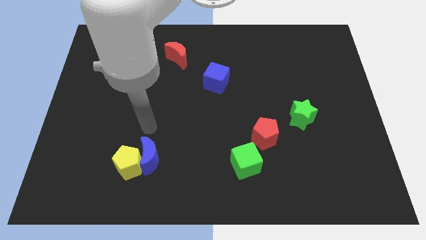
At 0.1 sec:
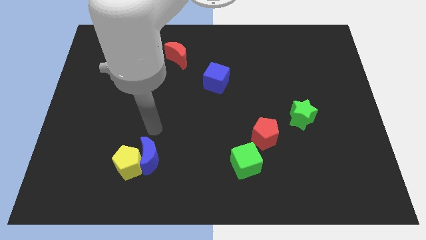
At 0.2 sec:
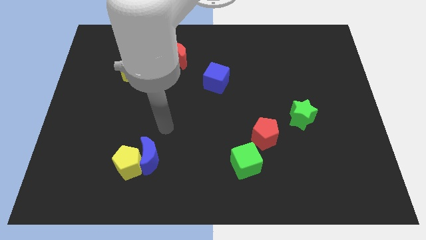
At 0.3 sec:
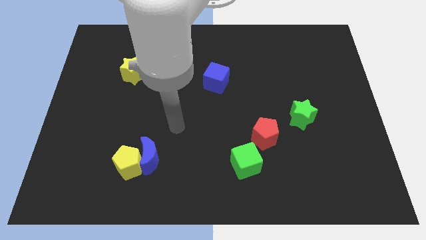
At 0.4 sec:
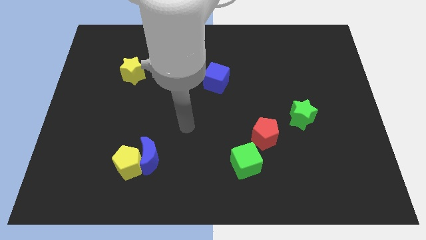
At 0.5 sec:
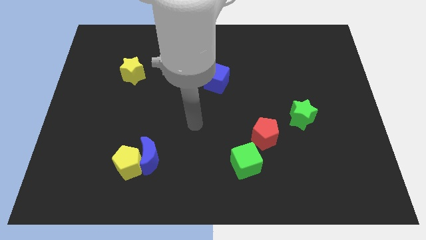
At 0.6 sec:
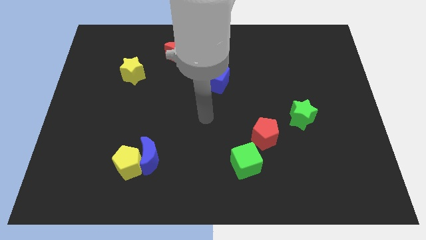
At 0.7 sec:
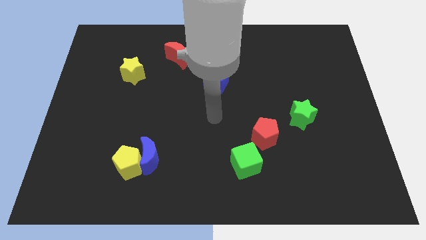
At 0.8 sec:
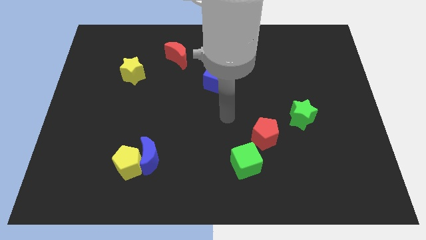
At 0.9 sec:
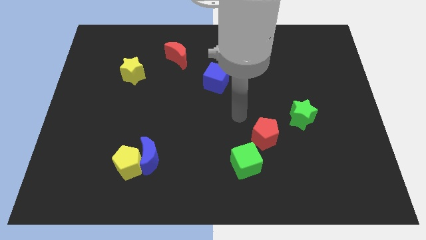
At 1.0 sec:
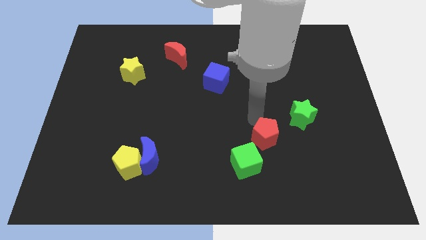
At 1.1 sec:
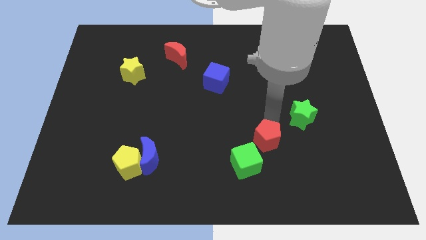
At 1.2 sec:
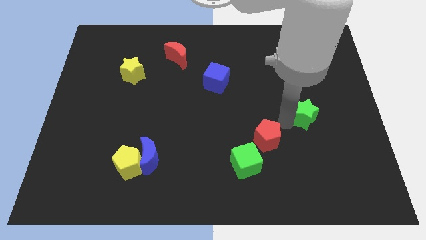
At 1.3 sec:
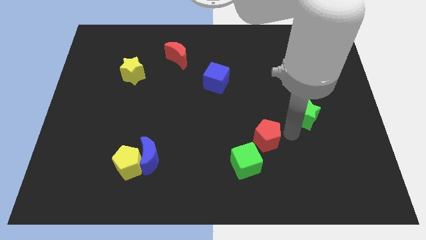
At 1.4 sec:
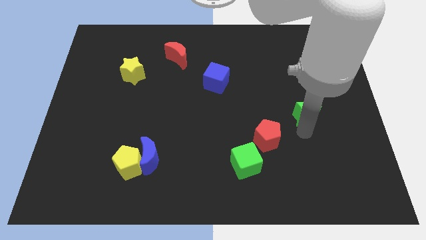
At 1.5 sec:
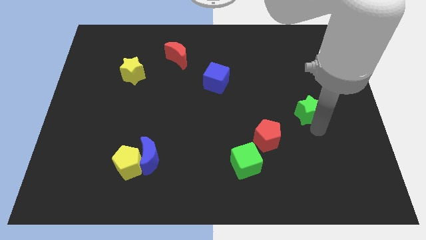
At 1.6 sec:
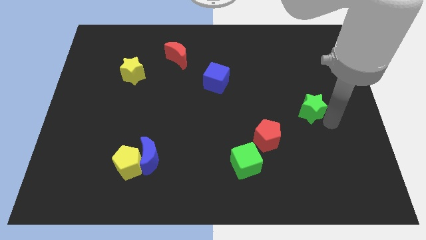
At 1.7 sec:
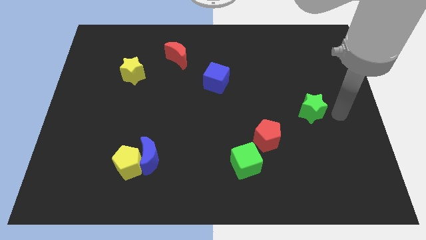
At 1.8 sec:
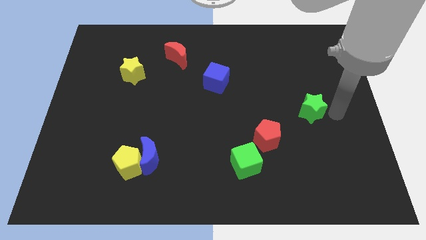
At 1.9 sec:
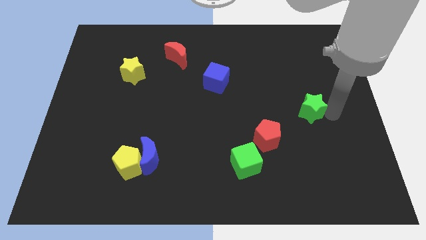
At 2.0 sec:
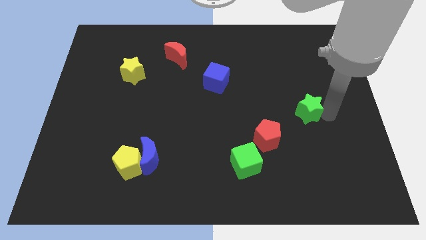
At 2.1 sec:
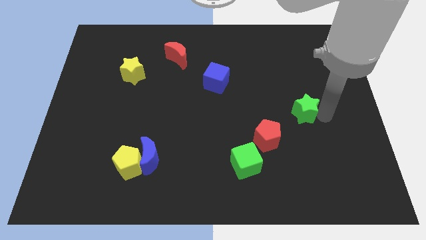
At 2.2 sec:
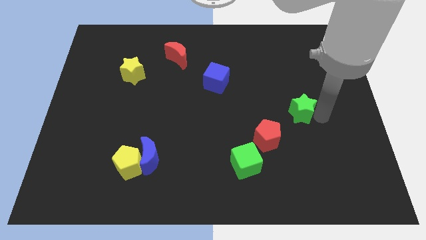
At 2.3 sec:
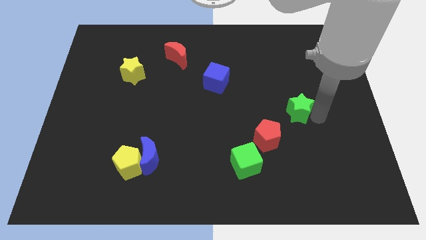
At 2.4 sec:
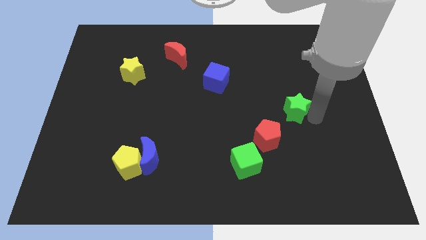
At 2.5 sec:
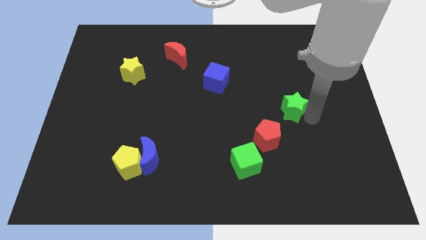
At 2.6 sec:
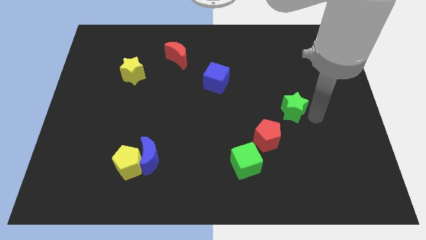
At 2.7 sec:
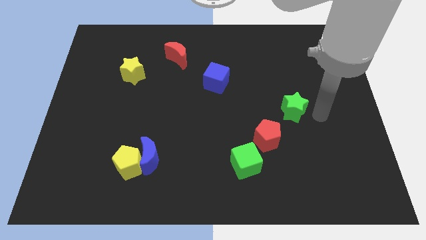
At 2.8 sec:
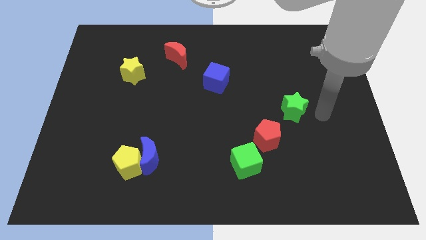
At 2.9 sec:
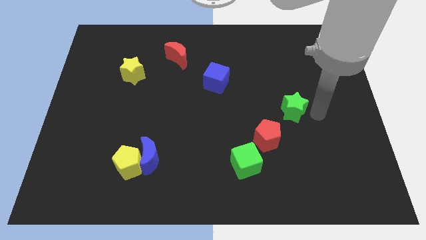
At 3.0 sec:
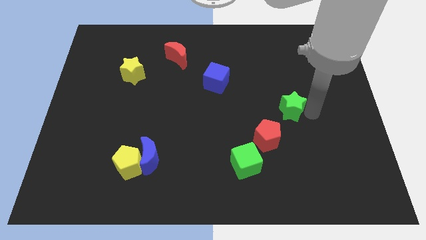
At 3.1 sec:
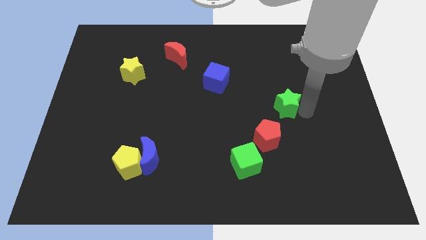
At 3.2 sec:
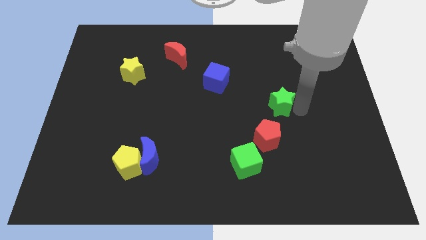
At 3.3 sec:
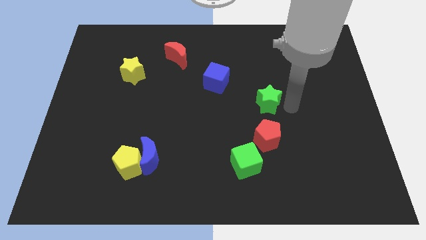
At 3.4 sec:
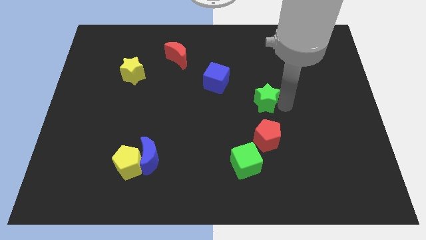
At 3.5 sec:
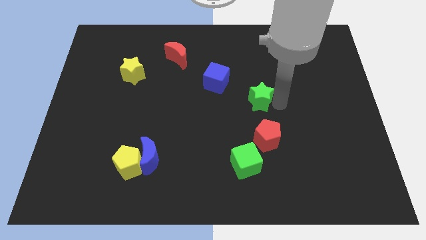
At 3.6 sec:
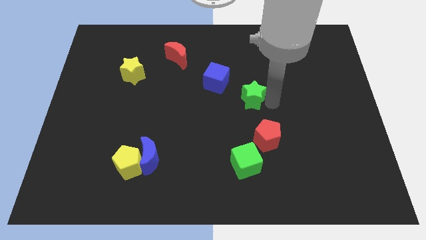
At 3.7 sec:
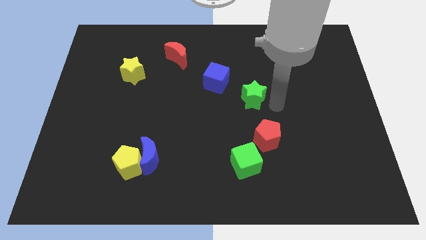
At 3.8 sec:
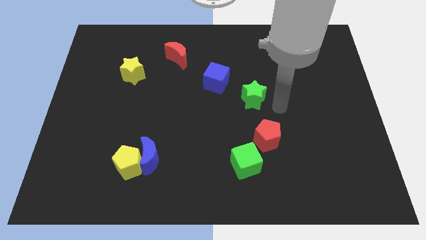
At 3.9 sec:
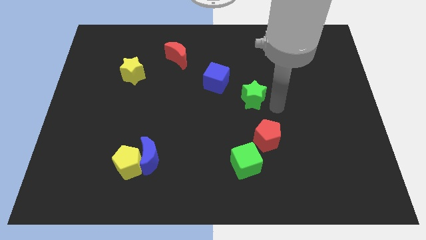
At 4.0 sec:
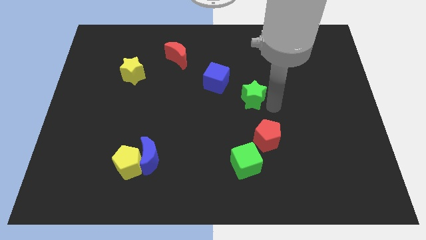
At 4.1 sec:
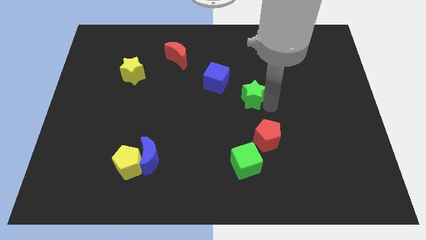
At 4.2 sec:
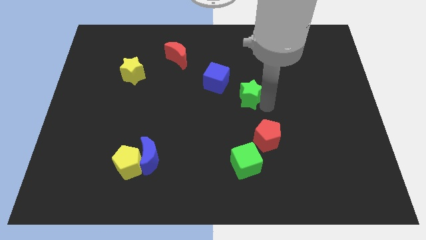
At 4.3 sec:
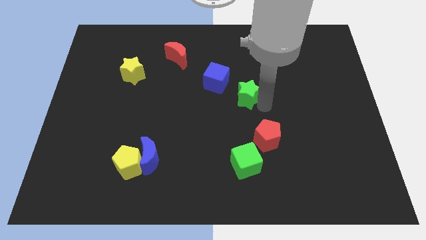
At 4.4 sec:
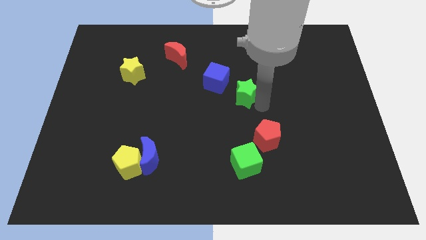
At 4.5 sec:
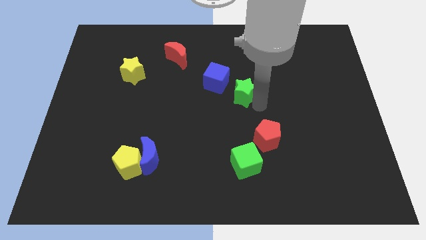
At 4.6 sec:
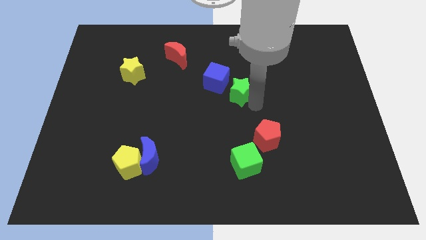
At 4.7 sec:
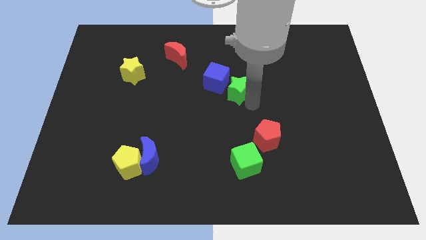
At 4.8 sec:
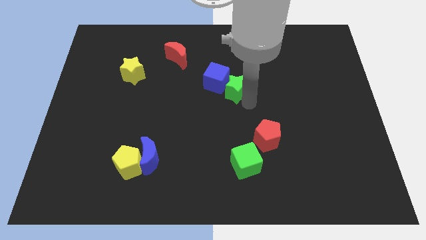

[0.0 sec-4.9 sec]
push the green star to the blue cube

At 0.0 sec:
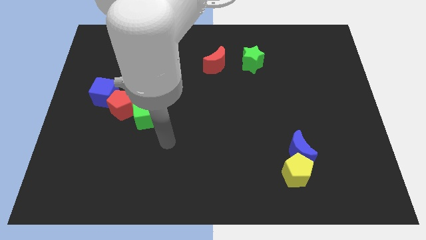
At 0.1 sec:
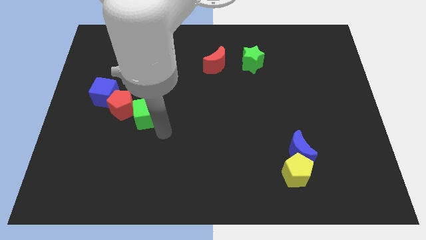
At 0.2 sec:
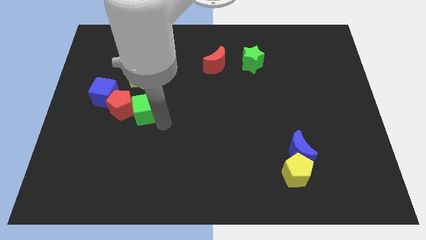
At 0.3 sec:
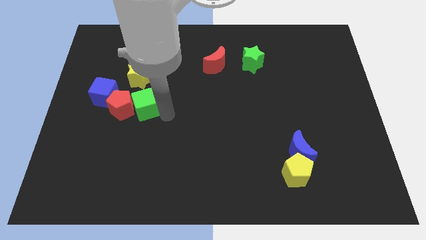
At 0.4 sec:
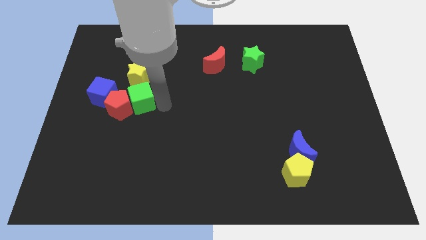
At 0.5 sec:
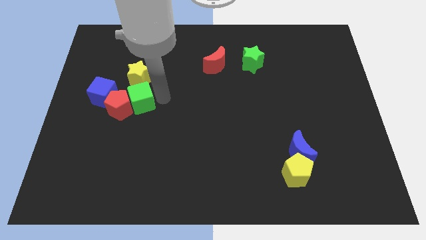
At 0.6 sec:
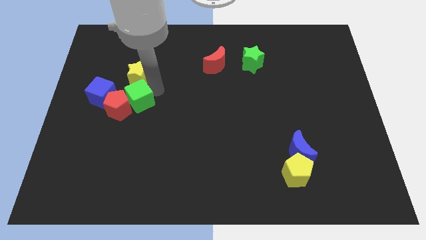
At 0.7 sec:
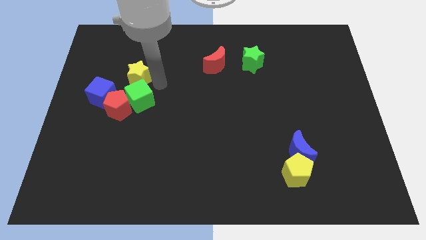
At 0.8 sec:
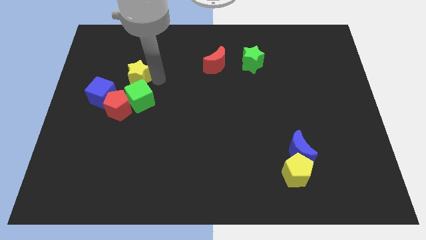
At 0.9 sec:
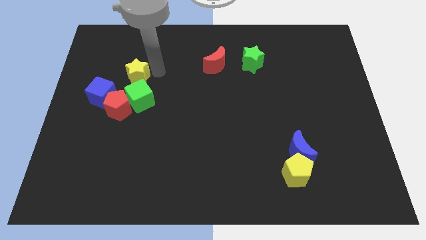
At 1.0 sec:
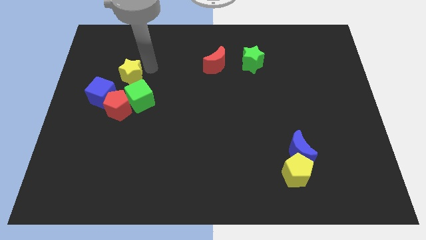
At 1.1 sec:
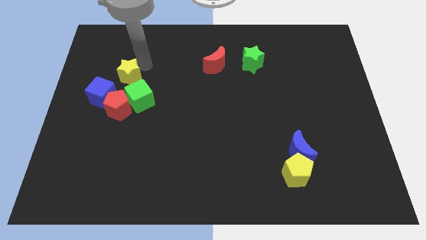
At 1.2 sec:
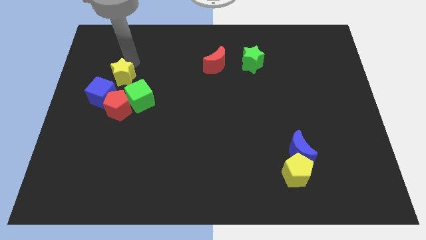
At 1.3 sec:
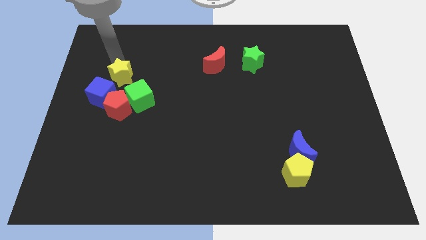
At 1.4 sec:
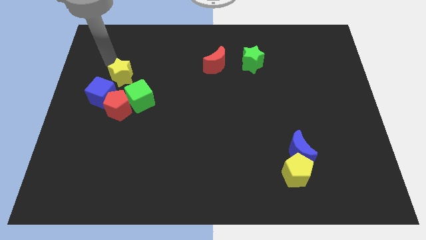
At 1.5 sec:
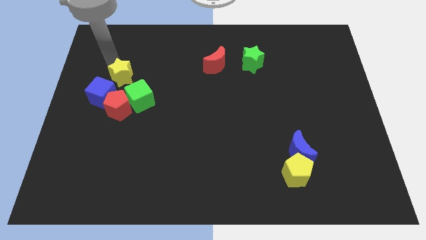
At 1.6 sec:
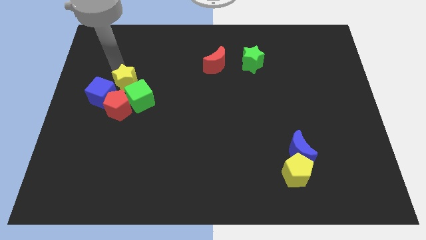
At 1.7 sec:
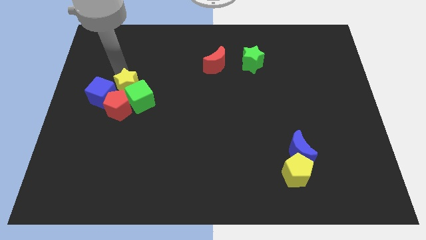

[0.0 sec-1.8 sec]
move the yellow star next to the green cube

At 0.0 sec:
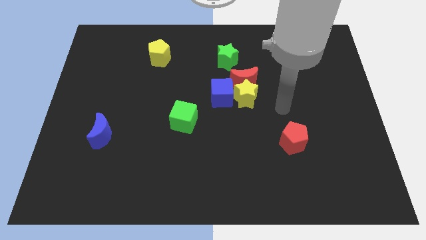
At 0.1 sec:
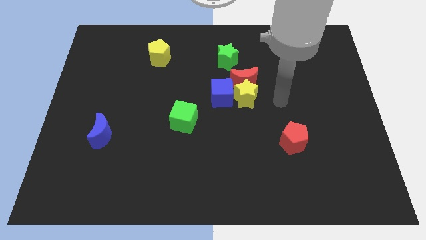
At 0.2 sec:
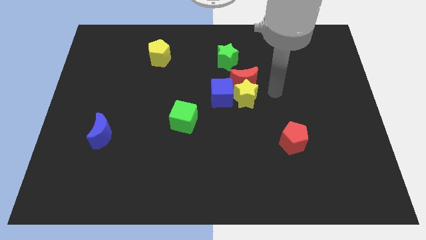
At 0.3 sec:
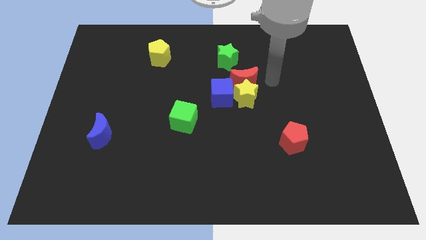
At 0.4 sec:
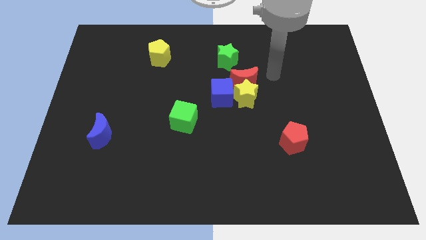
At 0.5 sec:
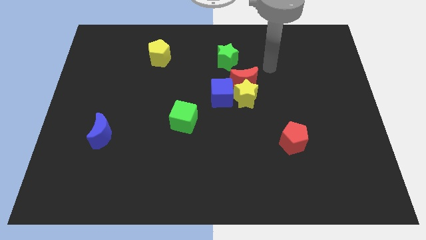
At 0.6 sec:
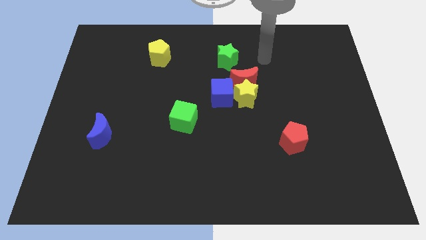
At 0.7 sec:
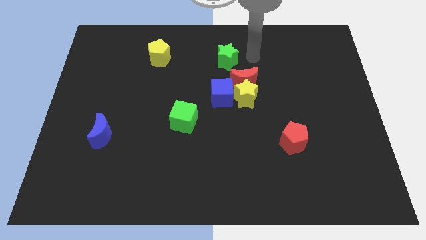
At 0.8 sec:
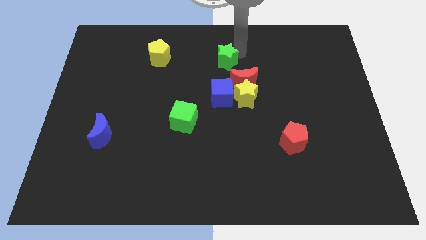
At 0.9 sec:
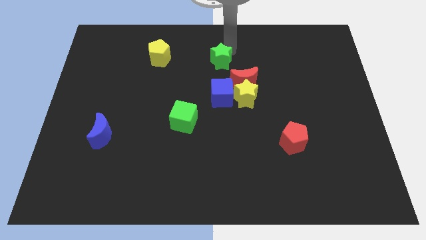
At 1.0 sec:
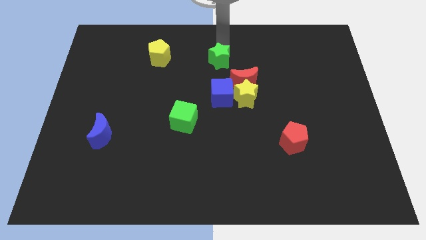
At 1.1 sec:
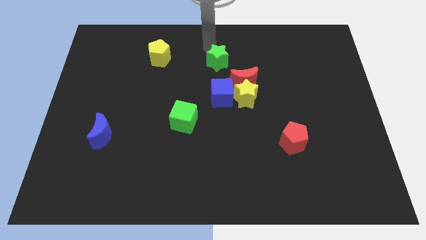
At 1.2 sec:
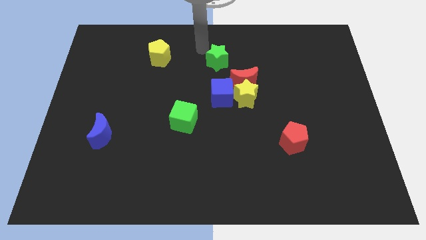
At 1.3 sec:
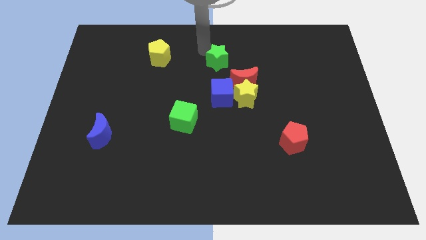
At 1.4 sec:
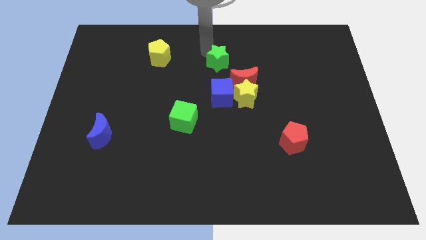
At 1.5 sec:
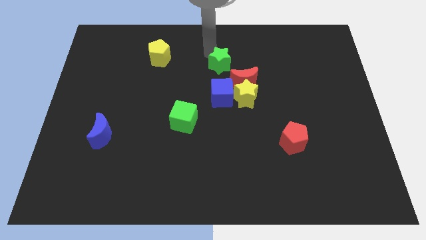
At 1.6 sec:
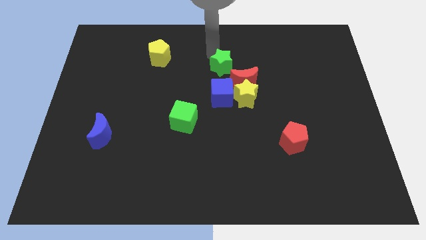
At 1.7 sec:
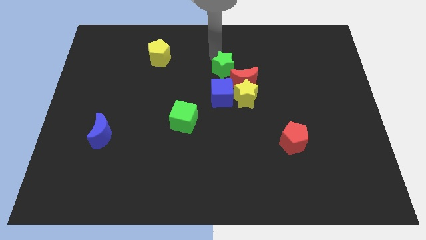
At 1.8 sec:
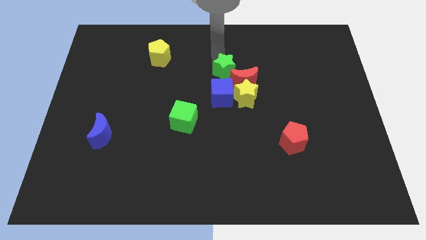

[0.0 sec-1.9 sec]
put the green star close to the red moon
